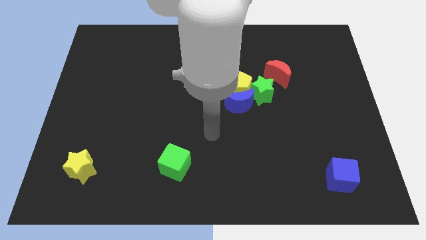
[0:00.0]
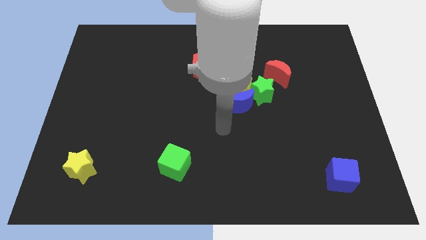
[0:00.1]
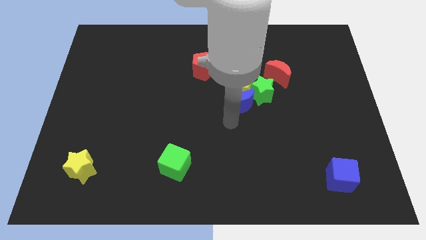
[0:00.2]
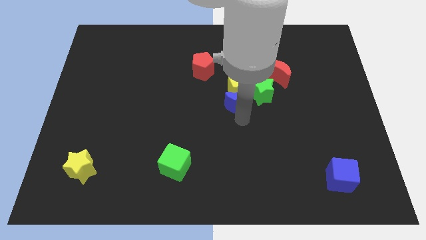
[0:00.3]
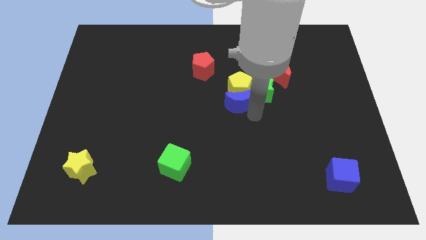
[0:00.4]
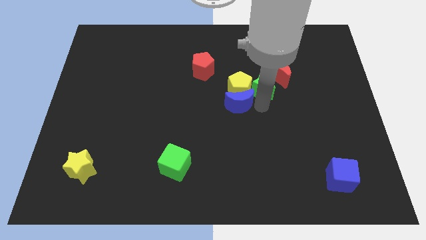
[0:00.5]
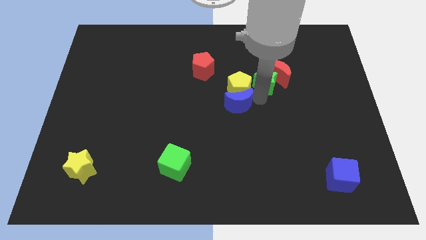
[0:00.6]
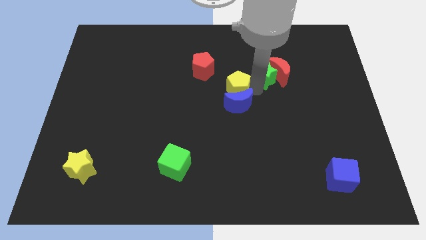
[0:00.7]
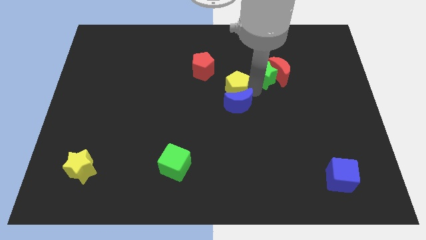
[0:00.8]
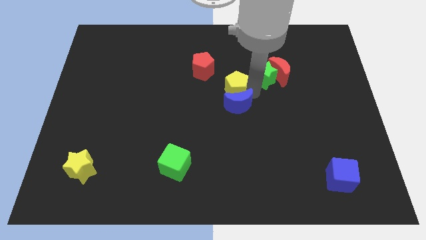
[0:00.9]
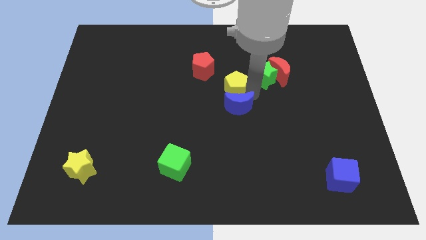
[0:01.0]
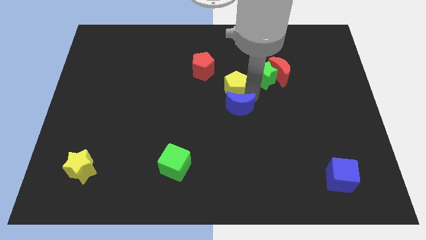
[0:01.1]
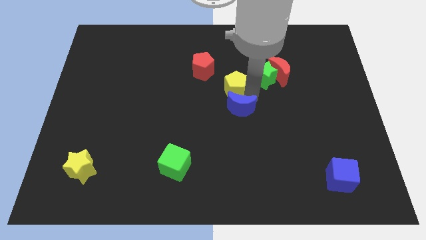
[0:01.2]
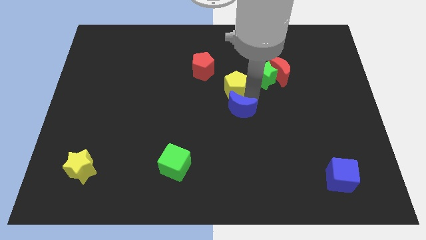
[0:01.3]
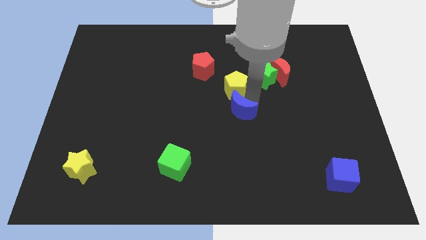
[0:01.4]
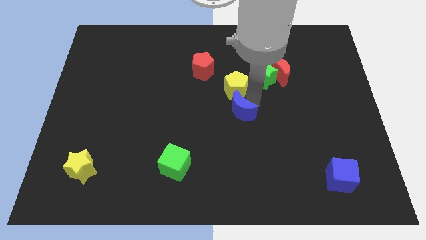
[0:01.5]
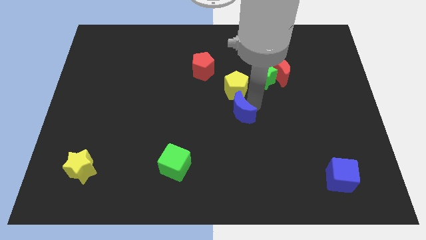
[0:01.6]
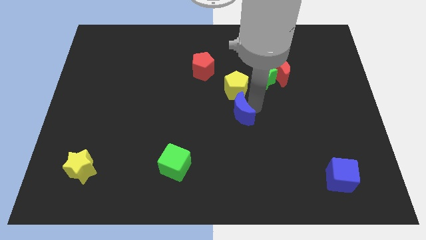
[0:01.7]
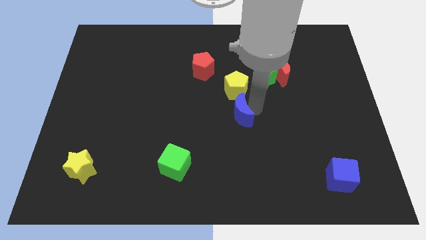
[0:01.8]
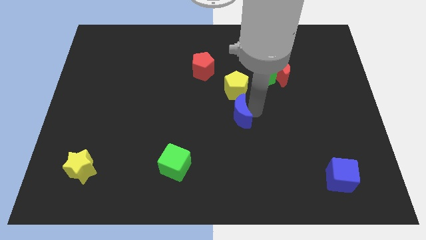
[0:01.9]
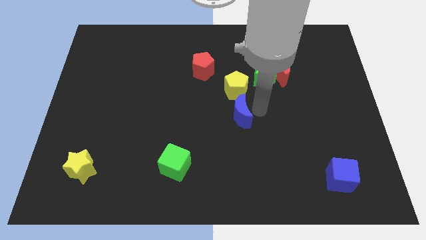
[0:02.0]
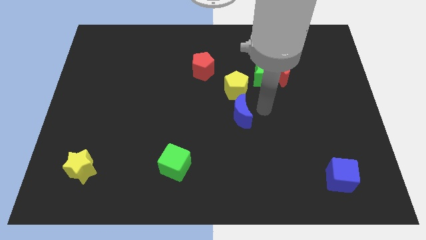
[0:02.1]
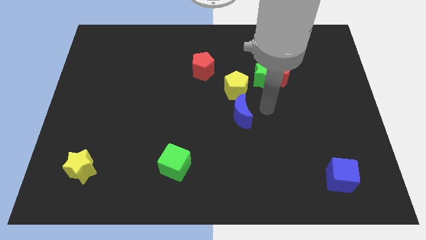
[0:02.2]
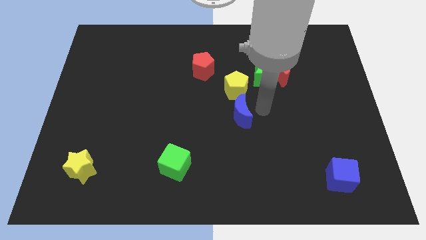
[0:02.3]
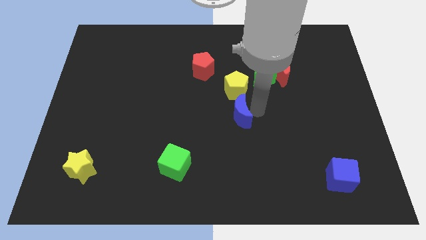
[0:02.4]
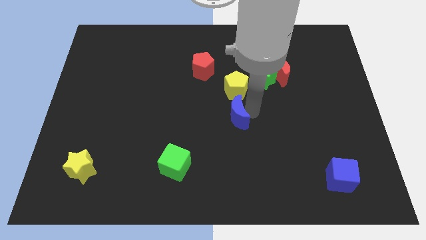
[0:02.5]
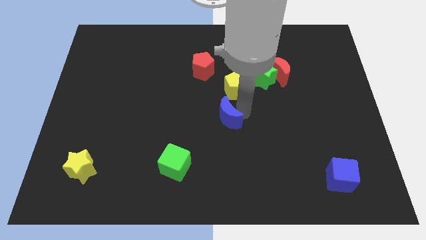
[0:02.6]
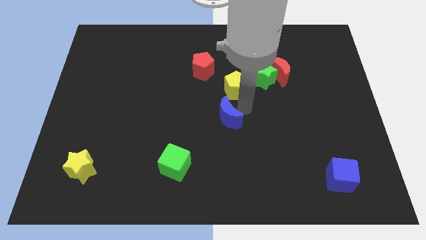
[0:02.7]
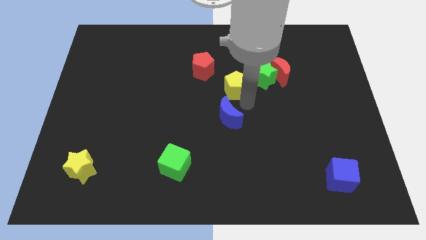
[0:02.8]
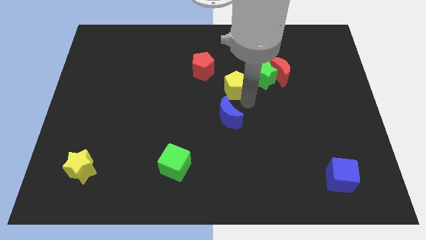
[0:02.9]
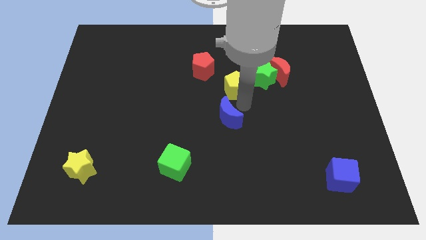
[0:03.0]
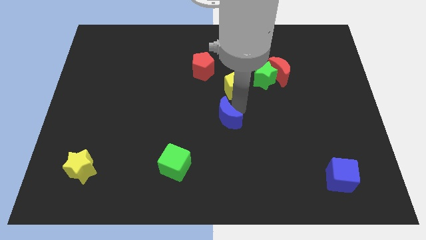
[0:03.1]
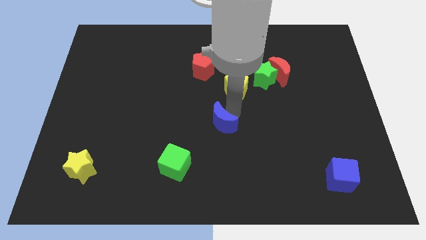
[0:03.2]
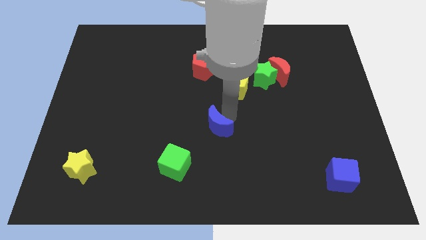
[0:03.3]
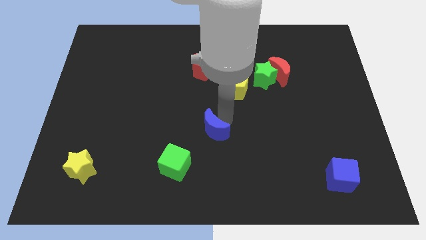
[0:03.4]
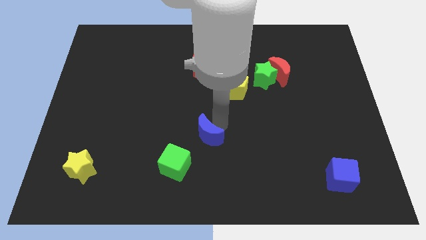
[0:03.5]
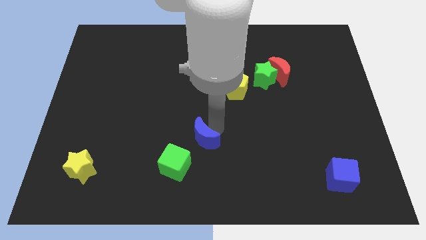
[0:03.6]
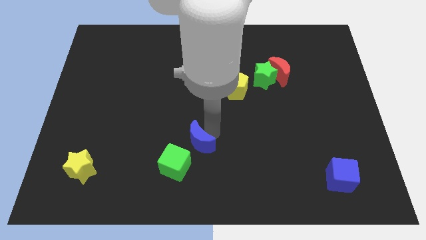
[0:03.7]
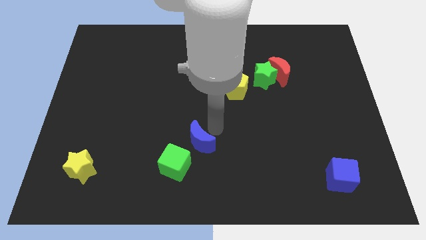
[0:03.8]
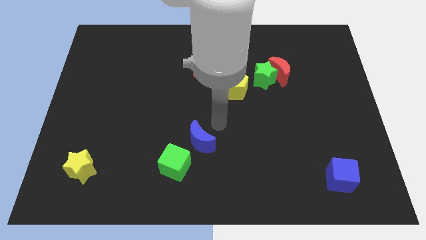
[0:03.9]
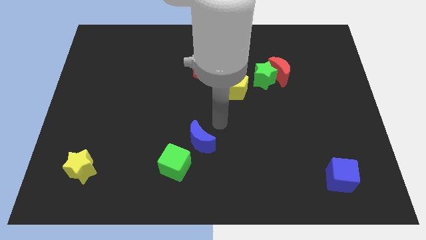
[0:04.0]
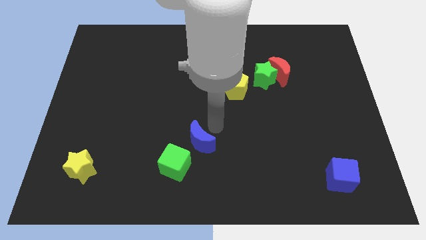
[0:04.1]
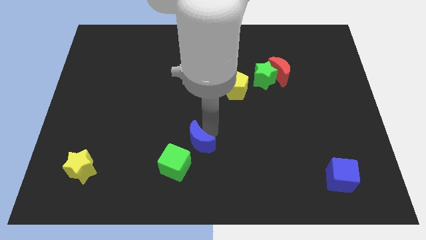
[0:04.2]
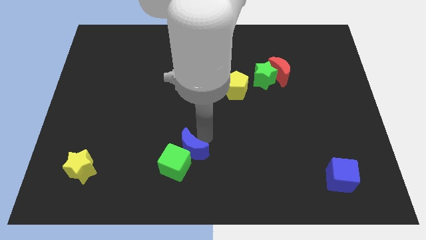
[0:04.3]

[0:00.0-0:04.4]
slide the blue moon next to the green cube

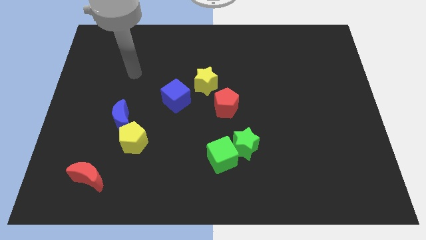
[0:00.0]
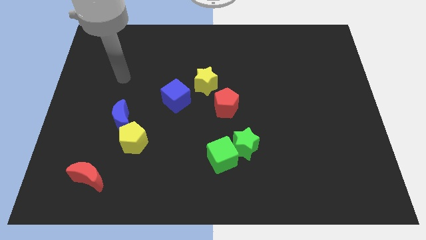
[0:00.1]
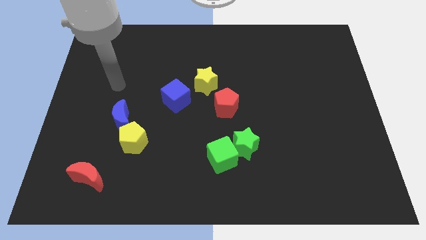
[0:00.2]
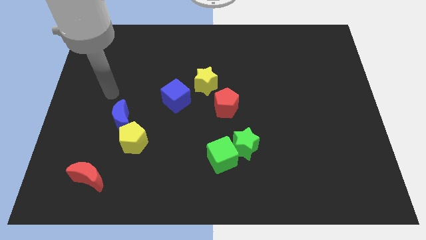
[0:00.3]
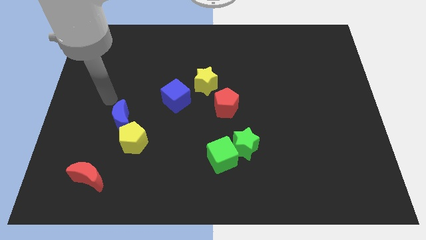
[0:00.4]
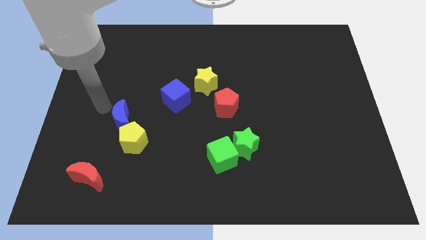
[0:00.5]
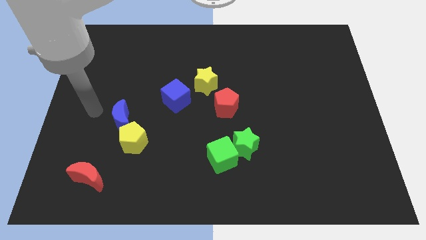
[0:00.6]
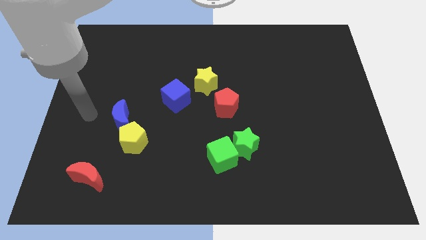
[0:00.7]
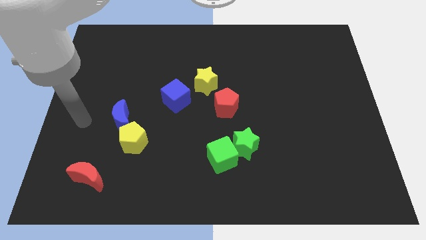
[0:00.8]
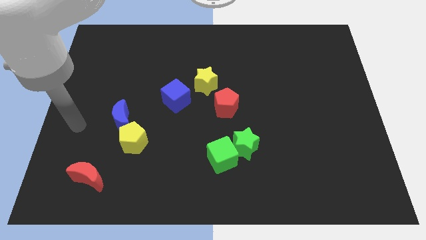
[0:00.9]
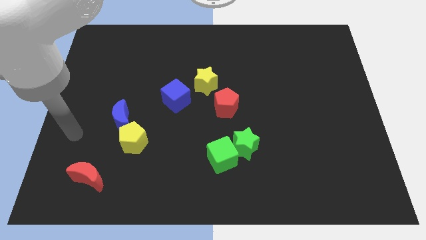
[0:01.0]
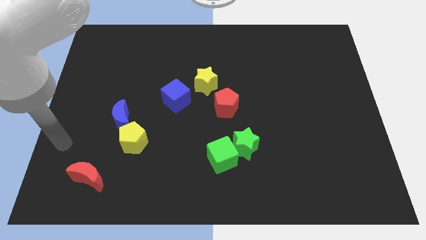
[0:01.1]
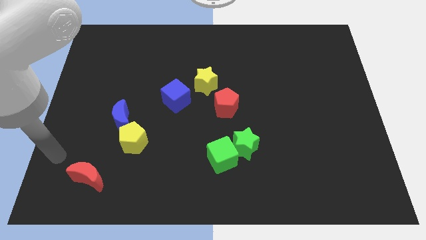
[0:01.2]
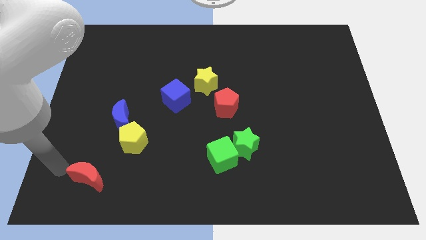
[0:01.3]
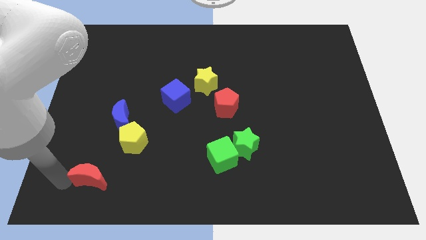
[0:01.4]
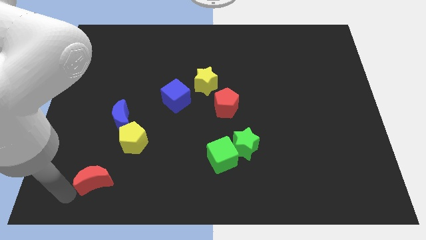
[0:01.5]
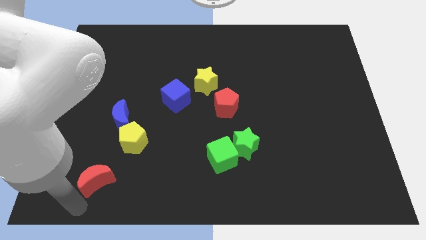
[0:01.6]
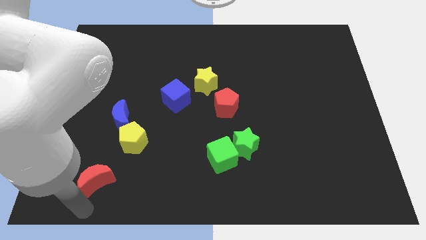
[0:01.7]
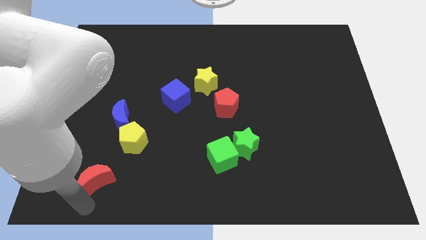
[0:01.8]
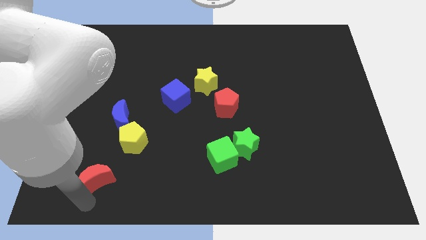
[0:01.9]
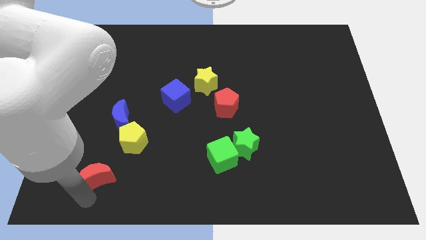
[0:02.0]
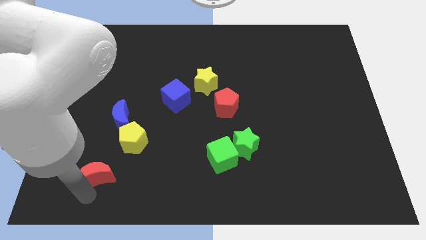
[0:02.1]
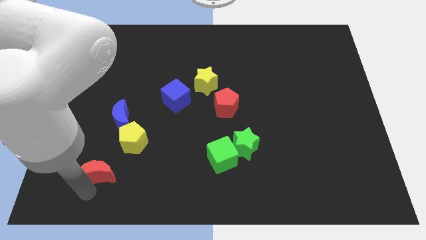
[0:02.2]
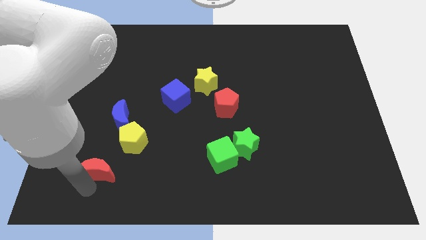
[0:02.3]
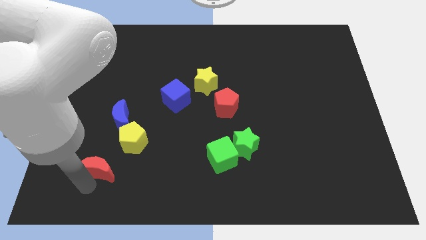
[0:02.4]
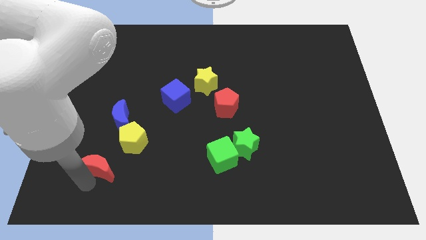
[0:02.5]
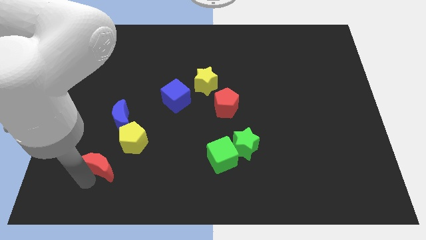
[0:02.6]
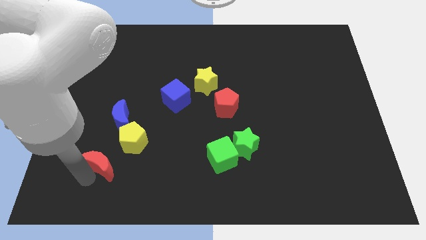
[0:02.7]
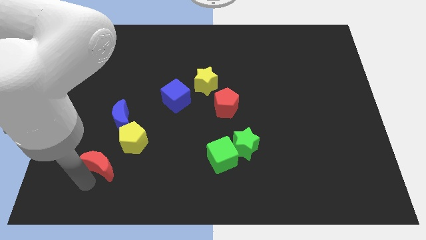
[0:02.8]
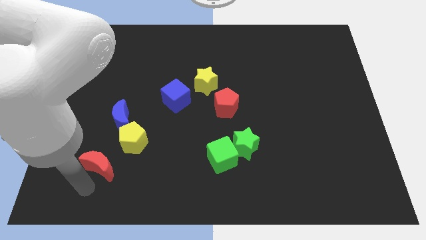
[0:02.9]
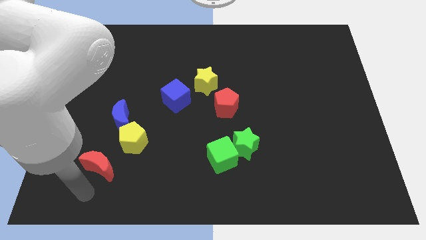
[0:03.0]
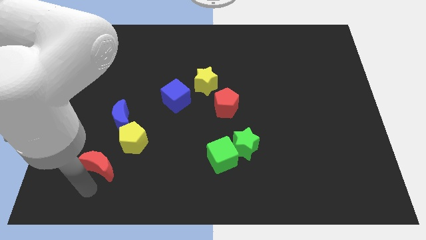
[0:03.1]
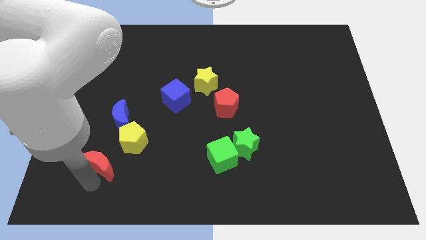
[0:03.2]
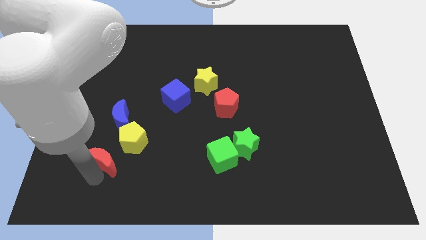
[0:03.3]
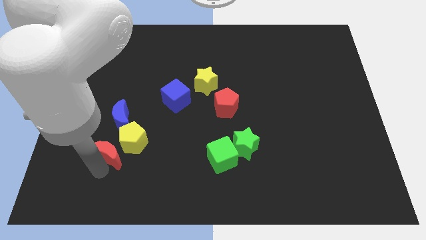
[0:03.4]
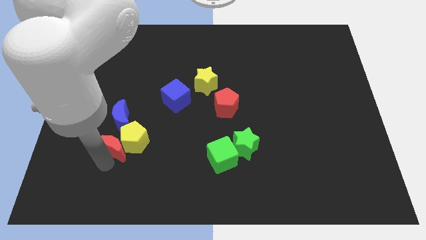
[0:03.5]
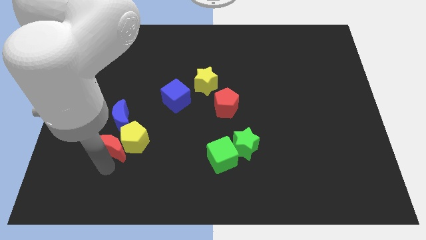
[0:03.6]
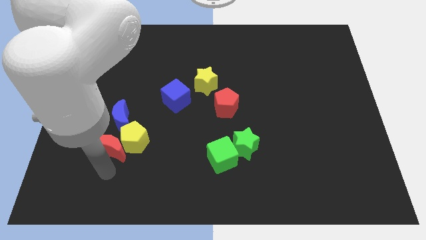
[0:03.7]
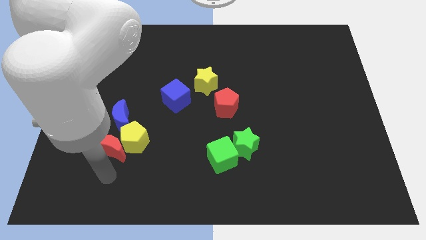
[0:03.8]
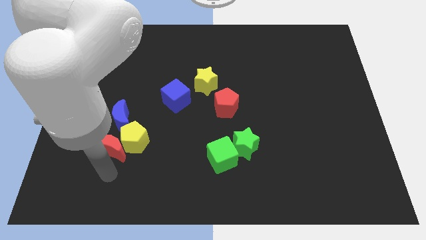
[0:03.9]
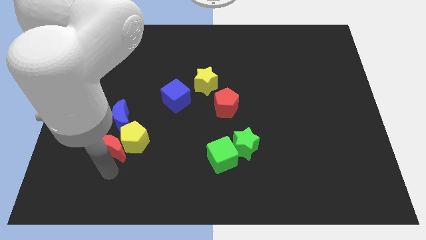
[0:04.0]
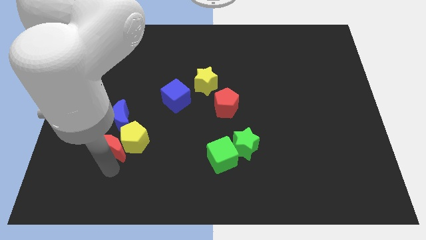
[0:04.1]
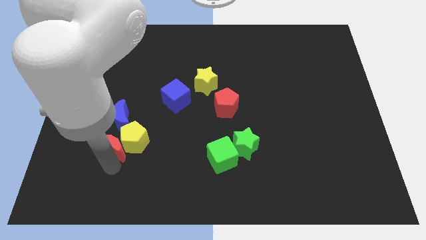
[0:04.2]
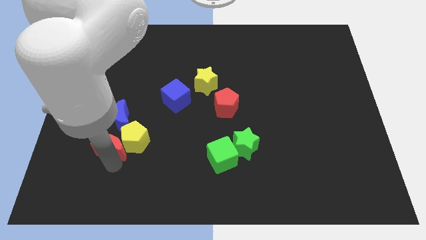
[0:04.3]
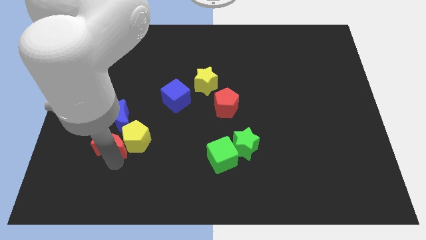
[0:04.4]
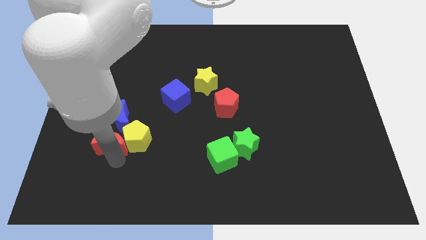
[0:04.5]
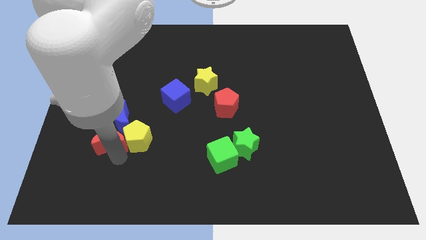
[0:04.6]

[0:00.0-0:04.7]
put the red moon to the blue moon
